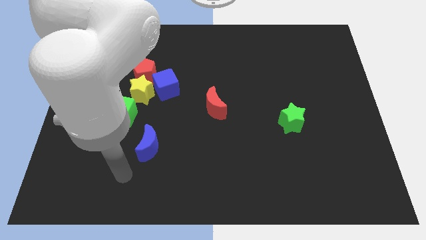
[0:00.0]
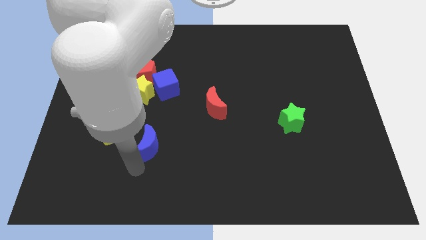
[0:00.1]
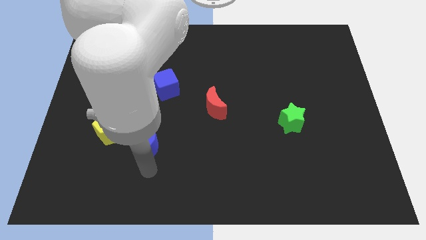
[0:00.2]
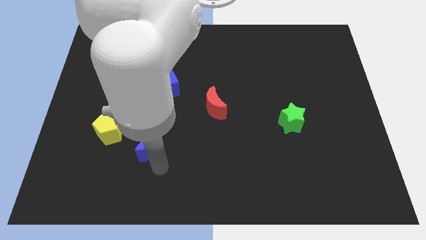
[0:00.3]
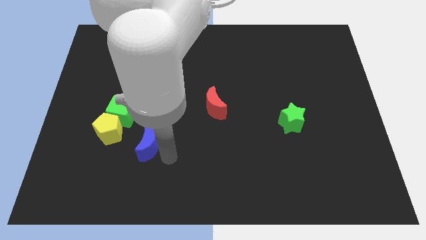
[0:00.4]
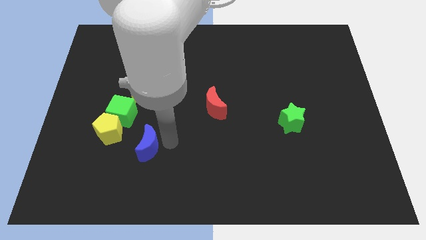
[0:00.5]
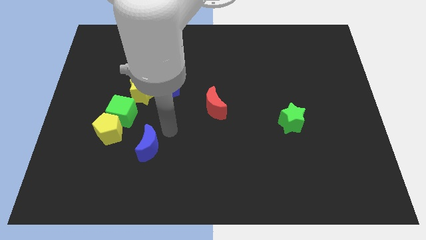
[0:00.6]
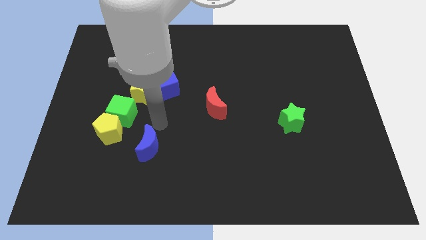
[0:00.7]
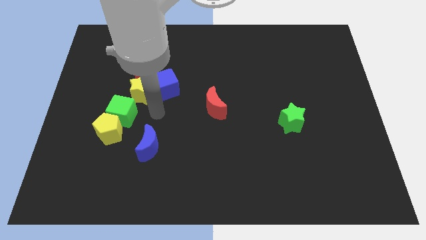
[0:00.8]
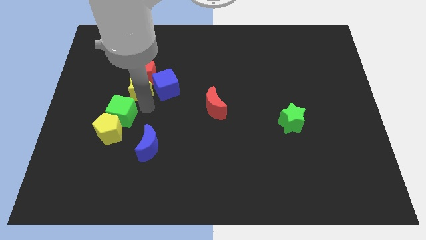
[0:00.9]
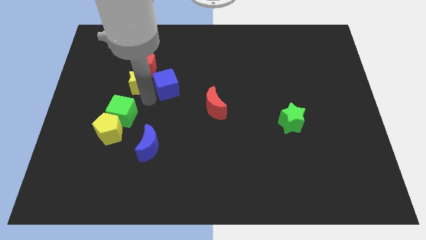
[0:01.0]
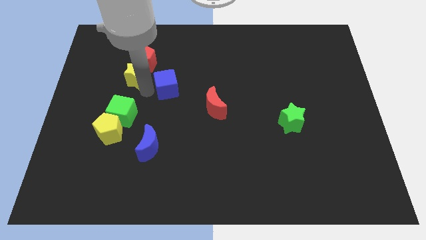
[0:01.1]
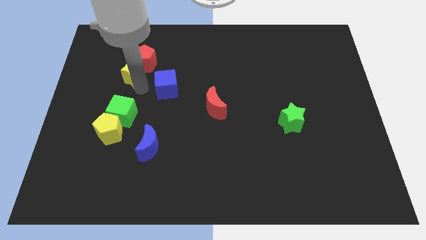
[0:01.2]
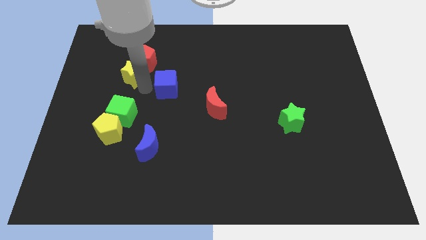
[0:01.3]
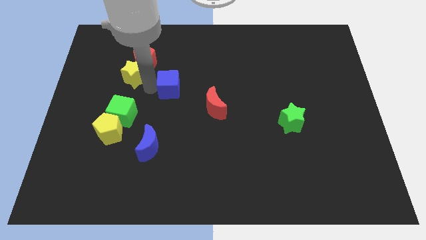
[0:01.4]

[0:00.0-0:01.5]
pull the blue cube apart from the yellow star and red pentagon

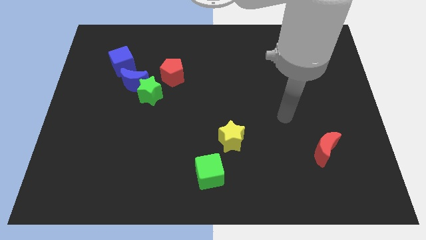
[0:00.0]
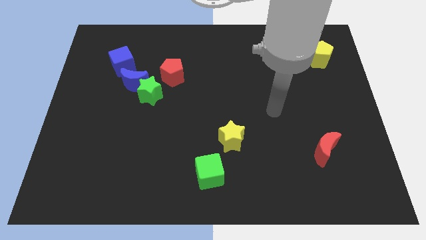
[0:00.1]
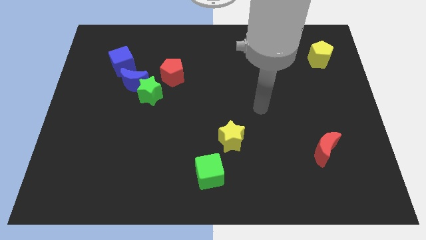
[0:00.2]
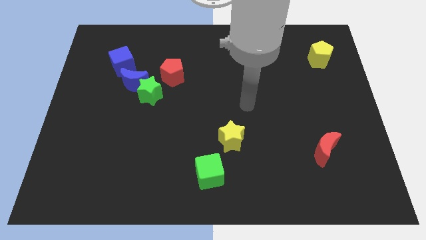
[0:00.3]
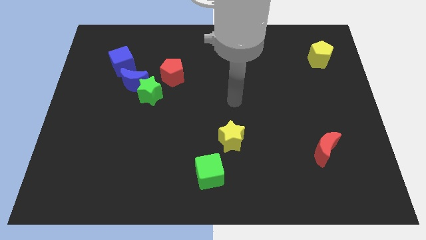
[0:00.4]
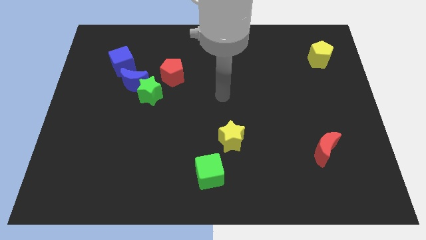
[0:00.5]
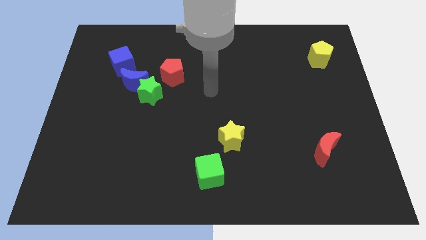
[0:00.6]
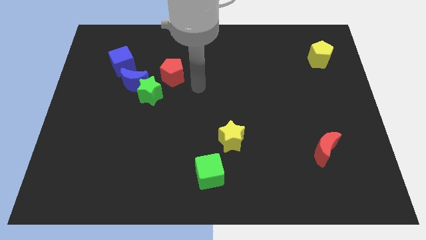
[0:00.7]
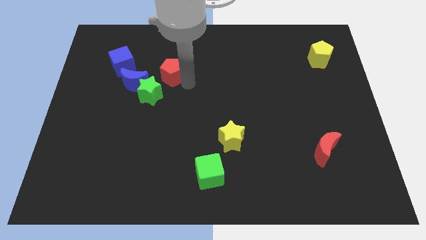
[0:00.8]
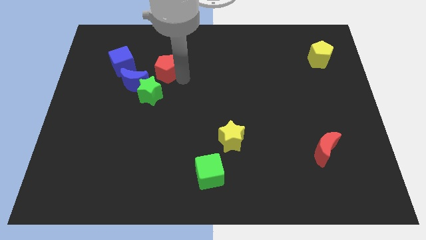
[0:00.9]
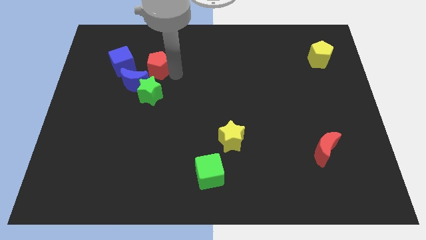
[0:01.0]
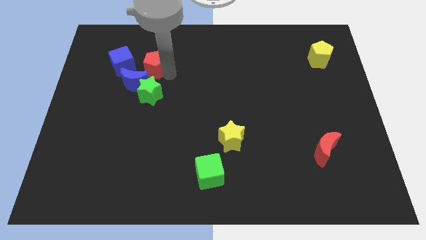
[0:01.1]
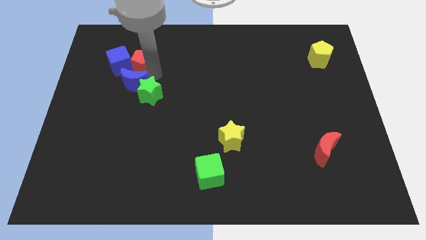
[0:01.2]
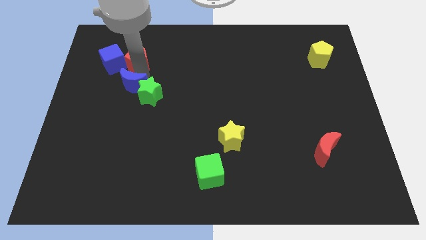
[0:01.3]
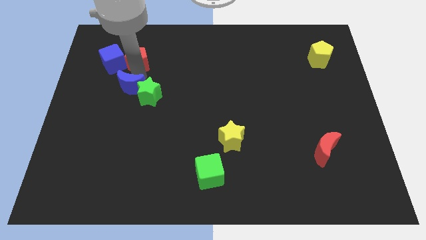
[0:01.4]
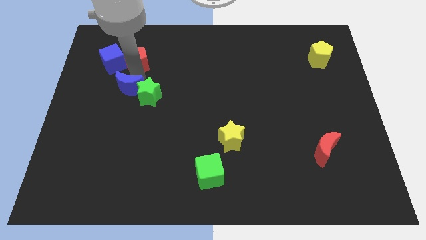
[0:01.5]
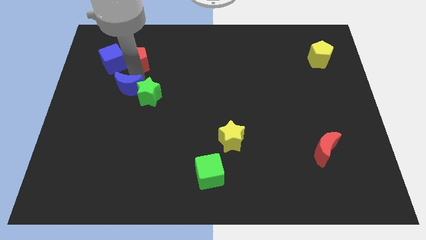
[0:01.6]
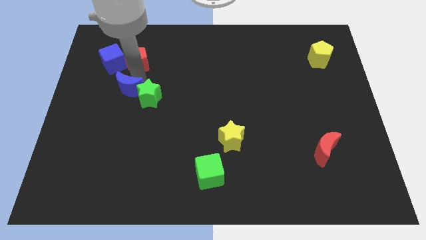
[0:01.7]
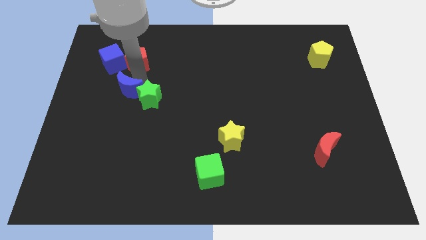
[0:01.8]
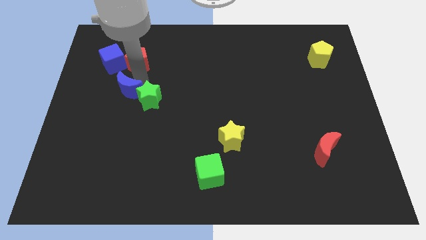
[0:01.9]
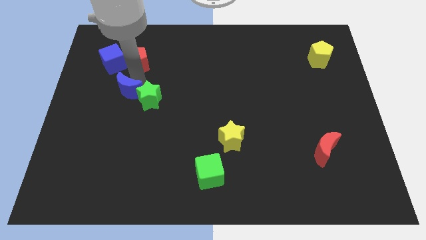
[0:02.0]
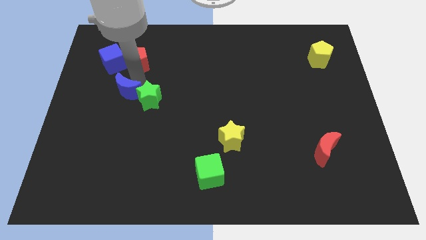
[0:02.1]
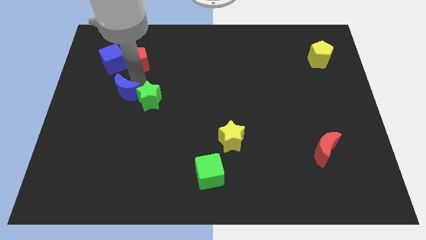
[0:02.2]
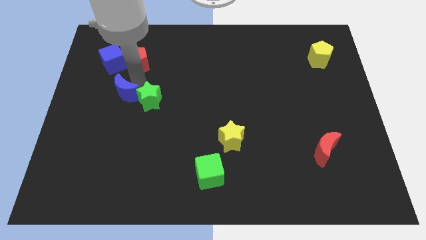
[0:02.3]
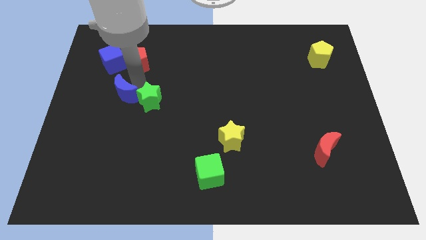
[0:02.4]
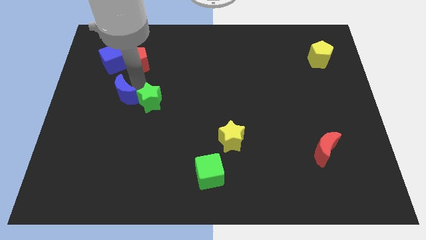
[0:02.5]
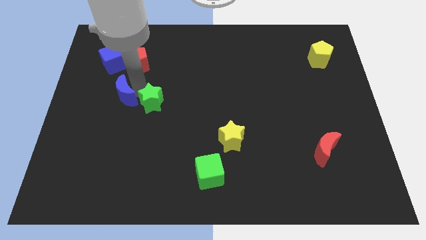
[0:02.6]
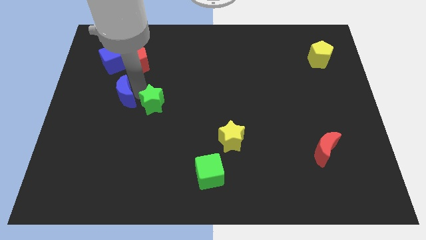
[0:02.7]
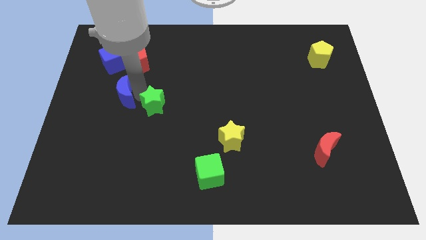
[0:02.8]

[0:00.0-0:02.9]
pull the green star apart from the blue moon and red pentagon

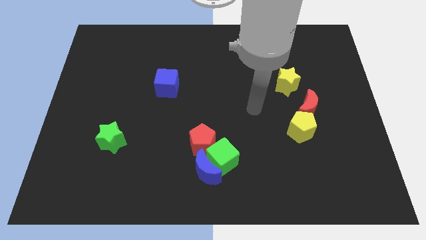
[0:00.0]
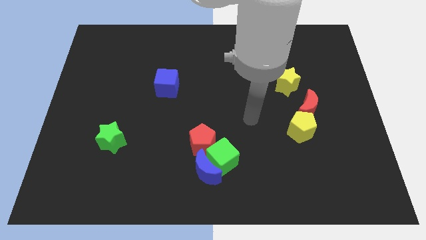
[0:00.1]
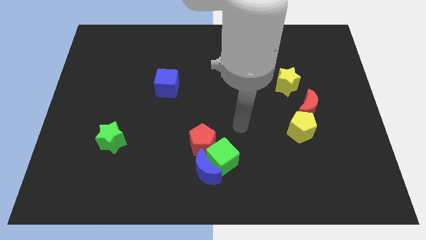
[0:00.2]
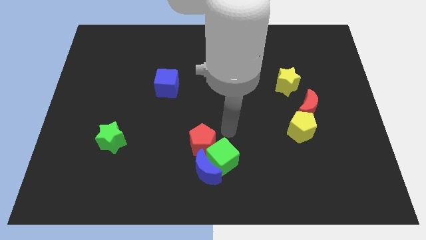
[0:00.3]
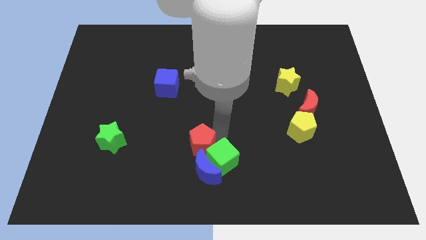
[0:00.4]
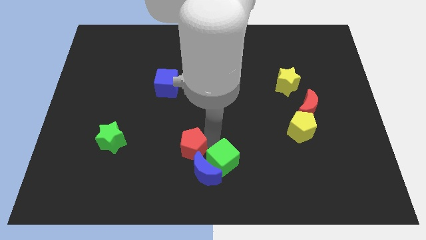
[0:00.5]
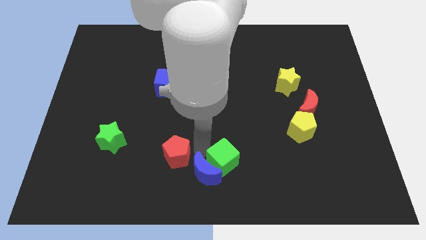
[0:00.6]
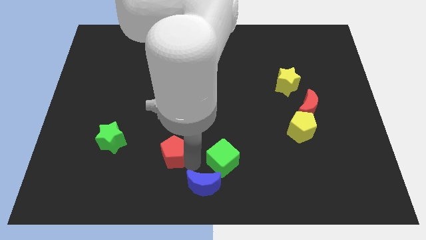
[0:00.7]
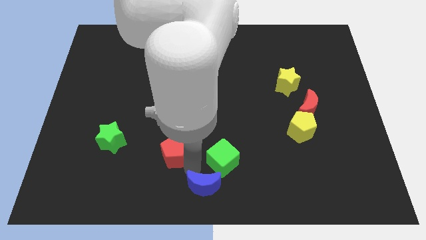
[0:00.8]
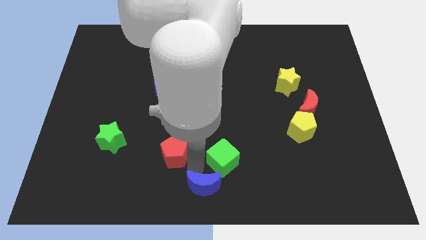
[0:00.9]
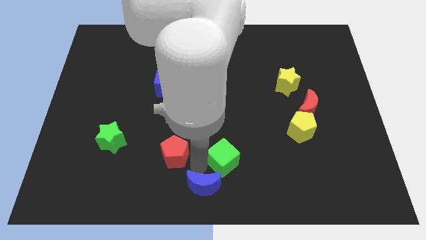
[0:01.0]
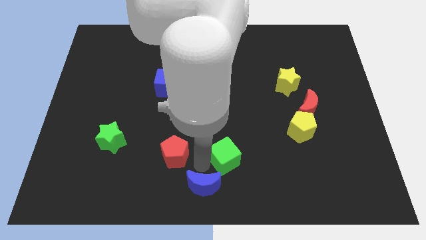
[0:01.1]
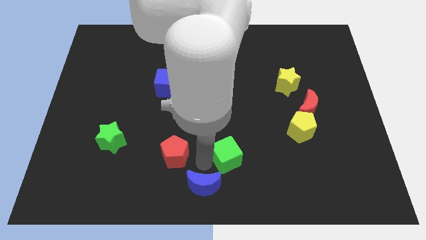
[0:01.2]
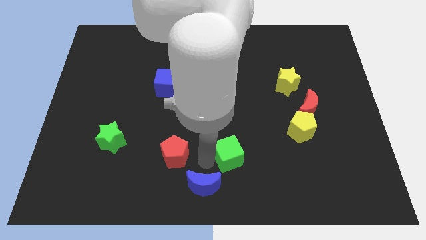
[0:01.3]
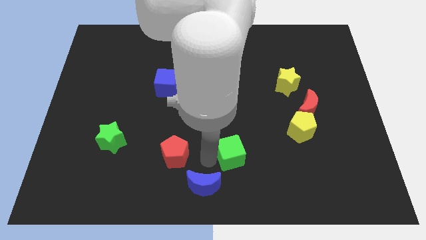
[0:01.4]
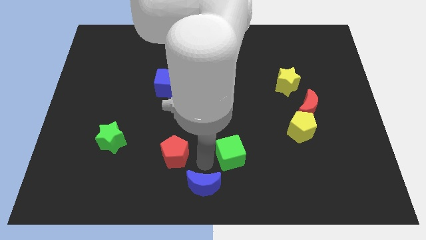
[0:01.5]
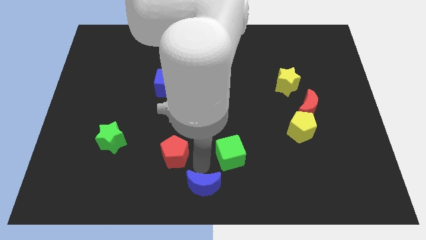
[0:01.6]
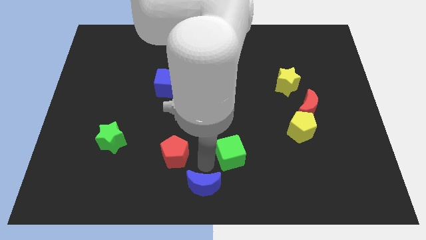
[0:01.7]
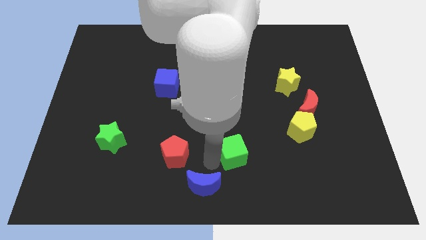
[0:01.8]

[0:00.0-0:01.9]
separate the green cube from the blue moon and red pentagon

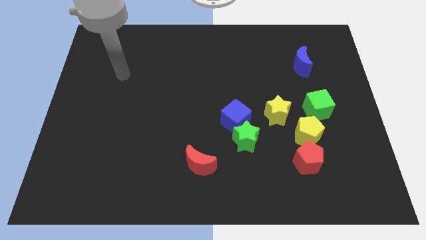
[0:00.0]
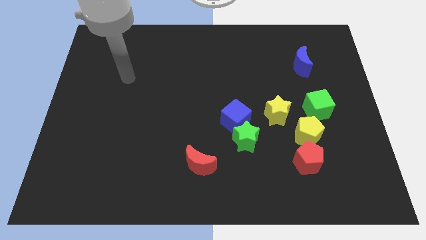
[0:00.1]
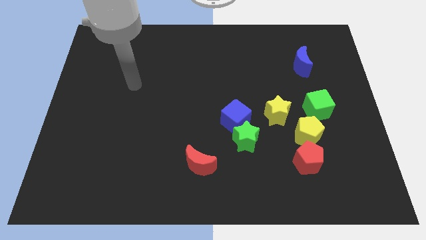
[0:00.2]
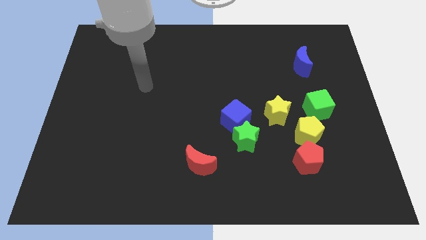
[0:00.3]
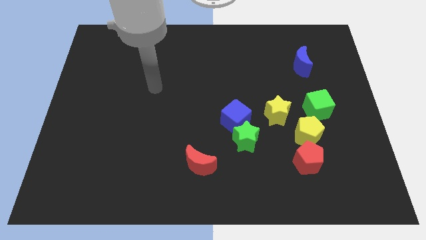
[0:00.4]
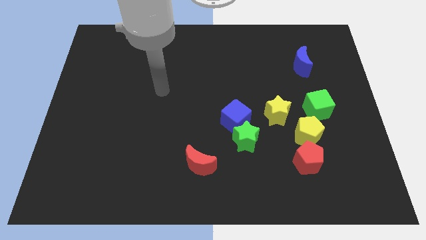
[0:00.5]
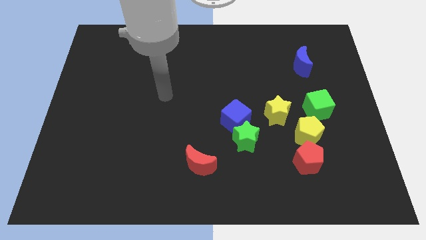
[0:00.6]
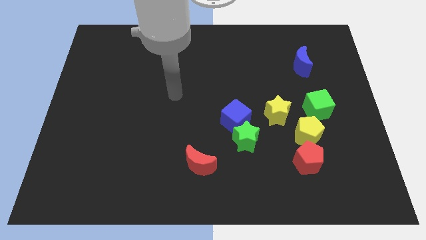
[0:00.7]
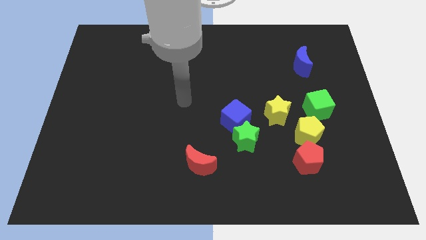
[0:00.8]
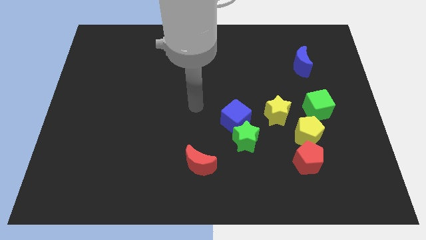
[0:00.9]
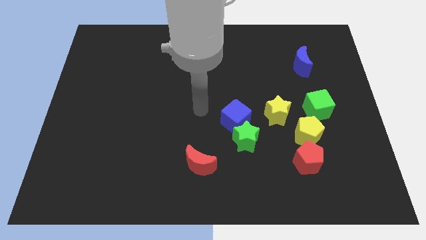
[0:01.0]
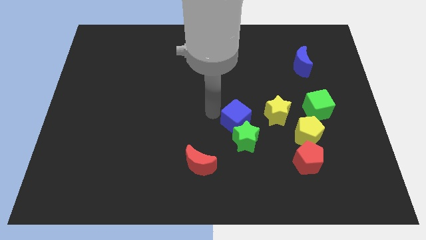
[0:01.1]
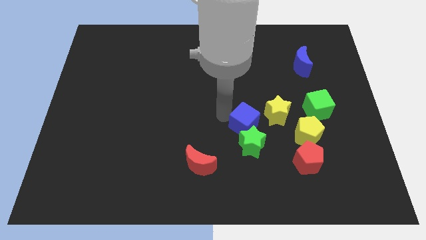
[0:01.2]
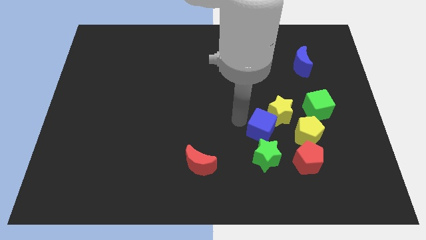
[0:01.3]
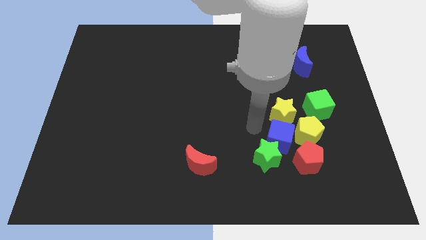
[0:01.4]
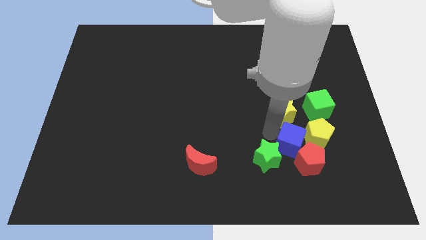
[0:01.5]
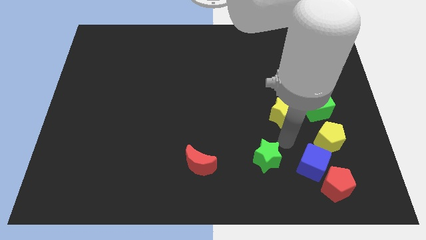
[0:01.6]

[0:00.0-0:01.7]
move the green star away from the blue cube

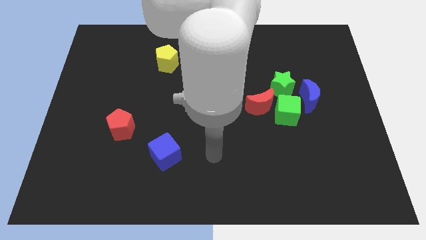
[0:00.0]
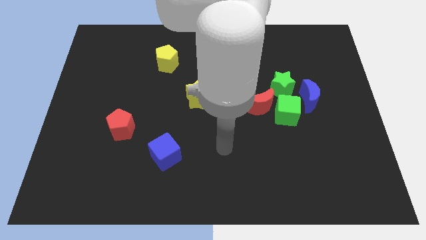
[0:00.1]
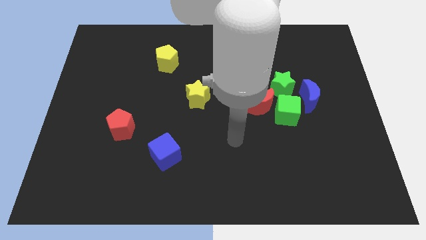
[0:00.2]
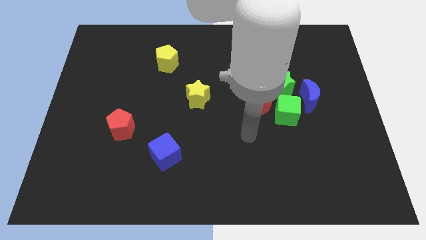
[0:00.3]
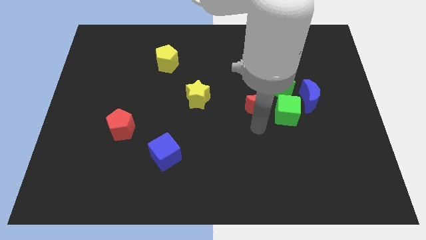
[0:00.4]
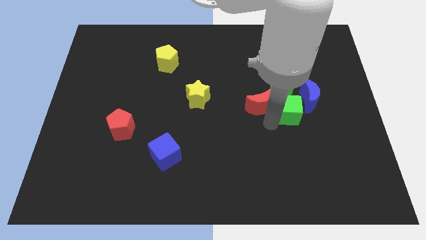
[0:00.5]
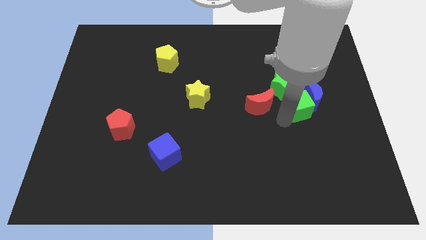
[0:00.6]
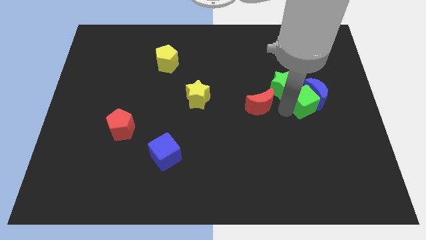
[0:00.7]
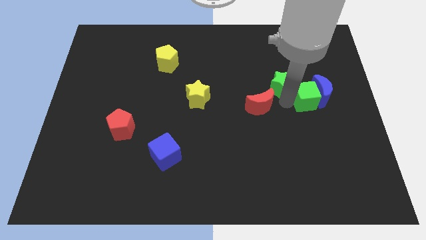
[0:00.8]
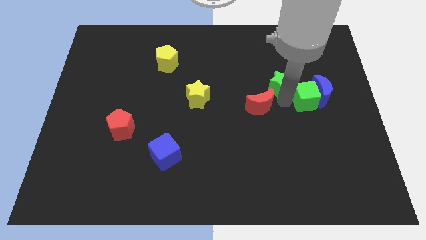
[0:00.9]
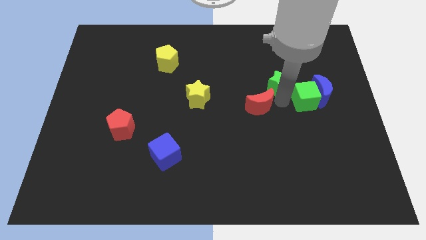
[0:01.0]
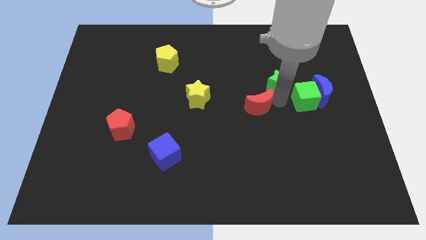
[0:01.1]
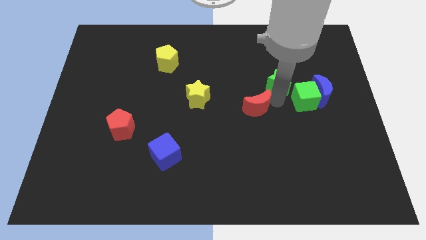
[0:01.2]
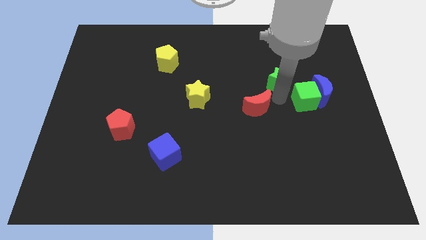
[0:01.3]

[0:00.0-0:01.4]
move the red moon away from the green cube and green star
